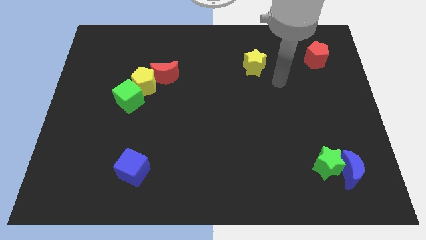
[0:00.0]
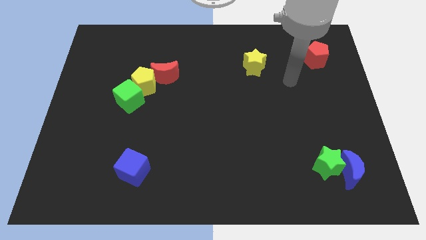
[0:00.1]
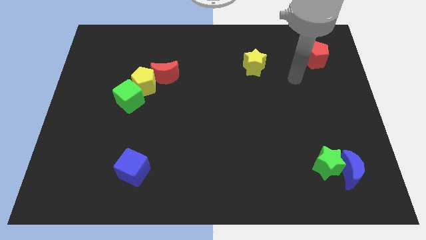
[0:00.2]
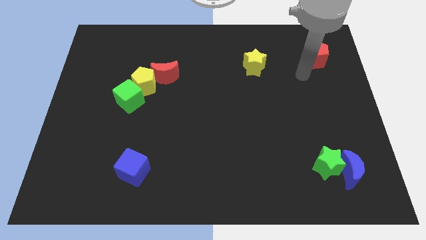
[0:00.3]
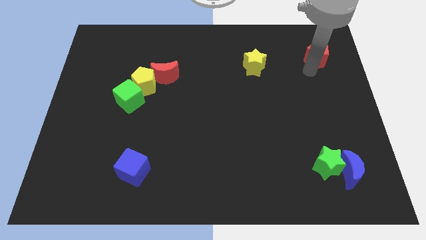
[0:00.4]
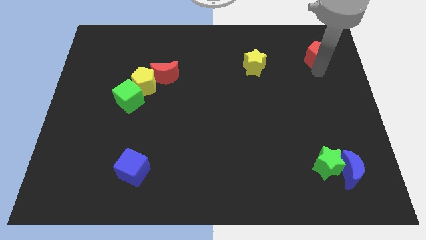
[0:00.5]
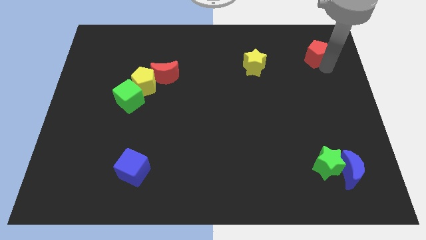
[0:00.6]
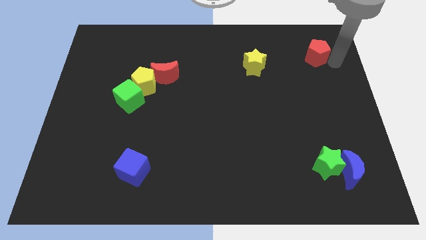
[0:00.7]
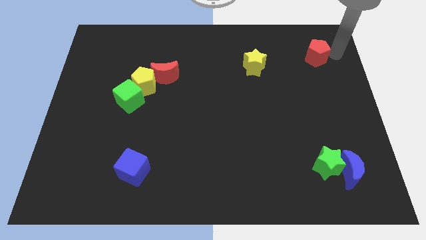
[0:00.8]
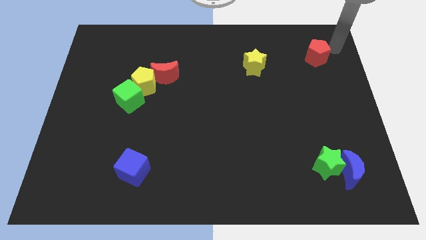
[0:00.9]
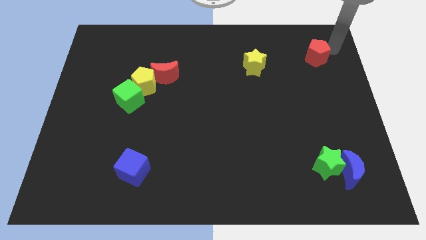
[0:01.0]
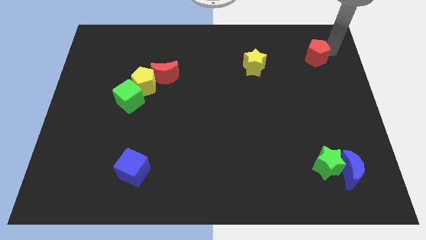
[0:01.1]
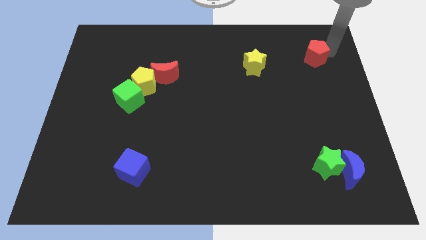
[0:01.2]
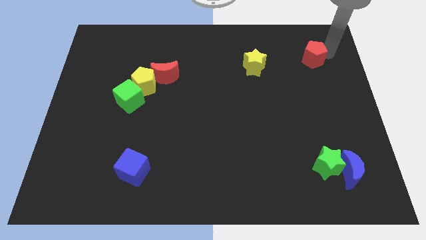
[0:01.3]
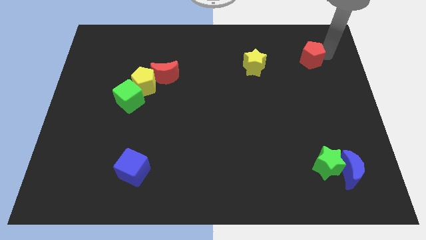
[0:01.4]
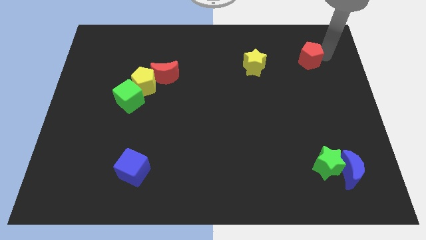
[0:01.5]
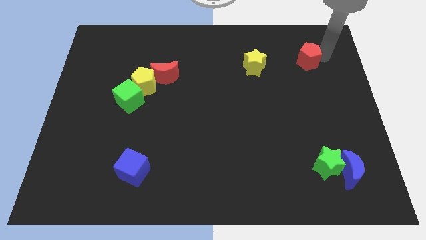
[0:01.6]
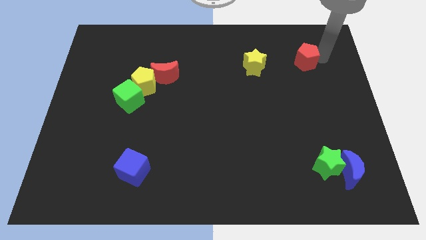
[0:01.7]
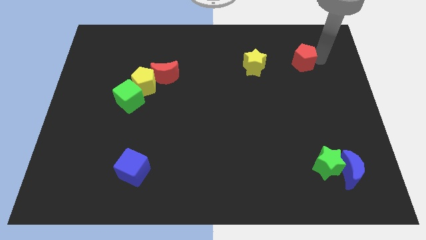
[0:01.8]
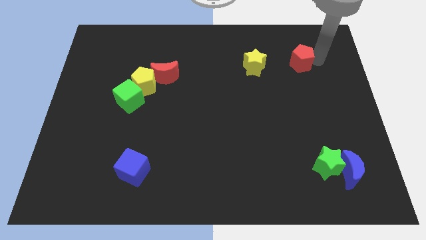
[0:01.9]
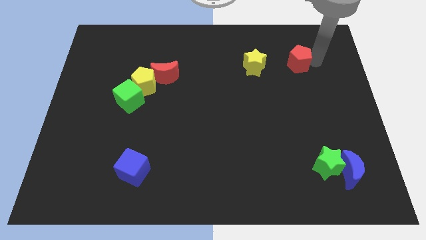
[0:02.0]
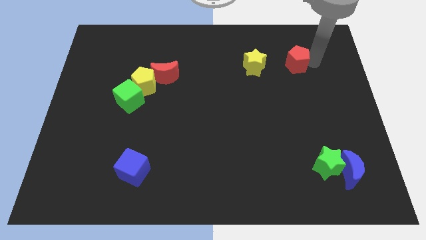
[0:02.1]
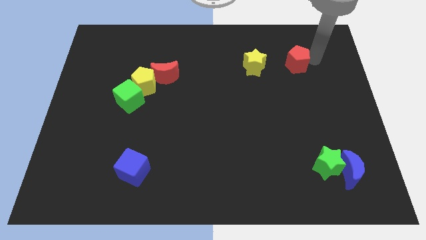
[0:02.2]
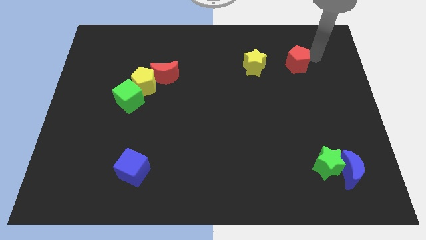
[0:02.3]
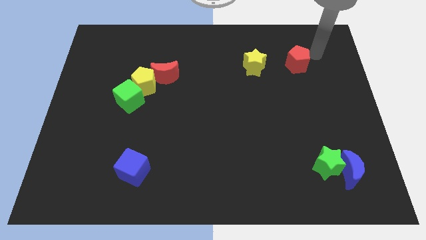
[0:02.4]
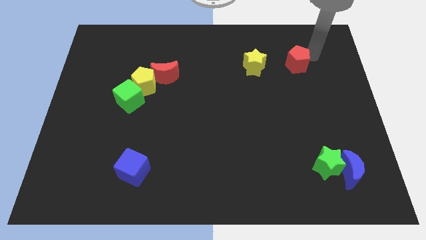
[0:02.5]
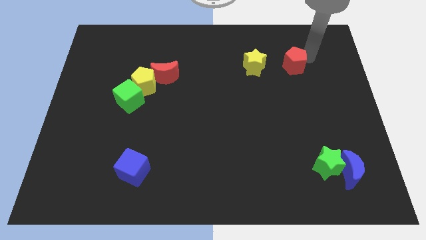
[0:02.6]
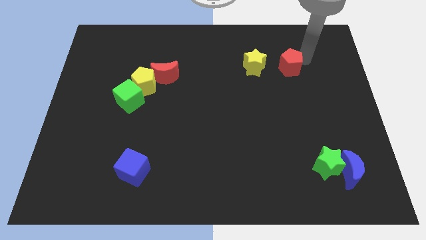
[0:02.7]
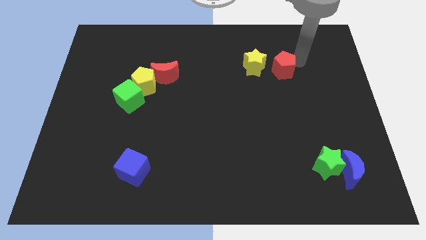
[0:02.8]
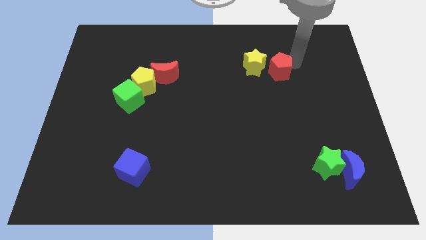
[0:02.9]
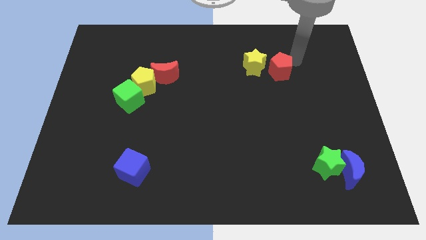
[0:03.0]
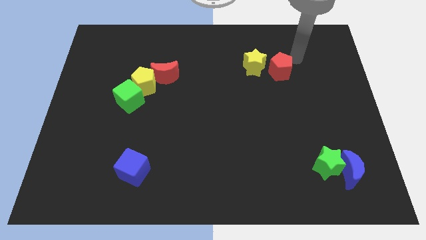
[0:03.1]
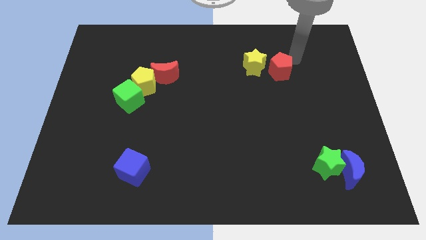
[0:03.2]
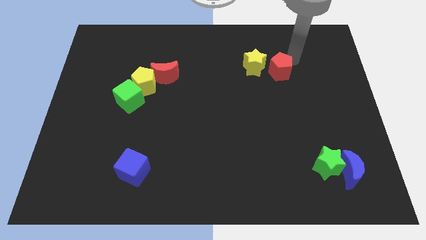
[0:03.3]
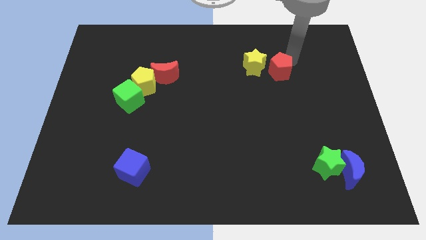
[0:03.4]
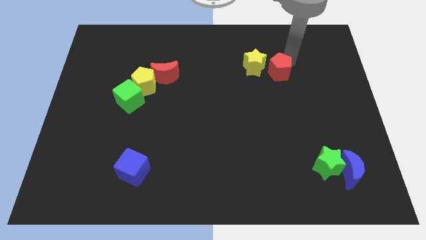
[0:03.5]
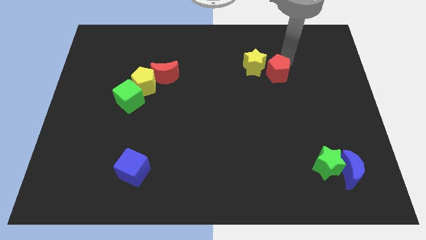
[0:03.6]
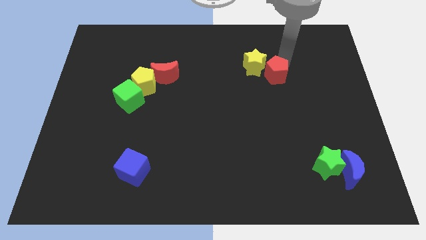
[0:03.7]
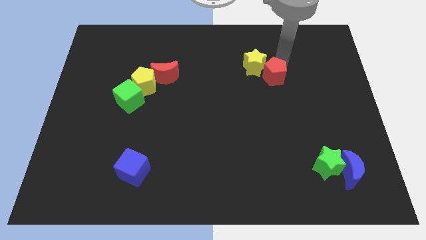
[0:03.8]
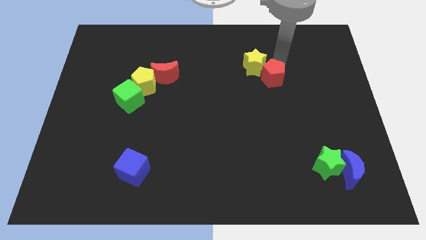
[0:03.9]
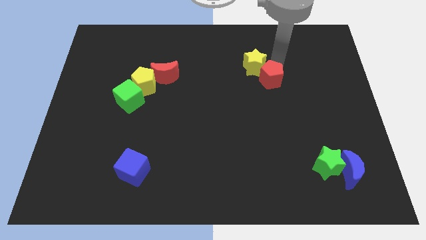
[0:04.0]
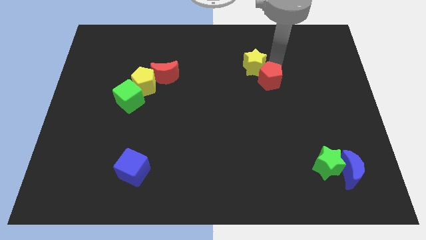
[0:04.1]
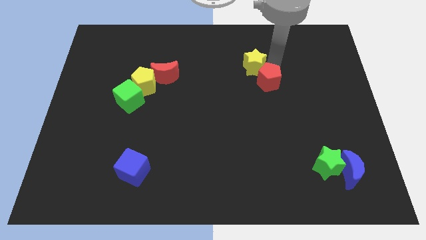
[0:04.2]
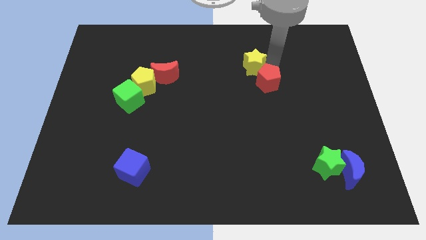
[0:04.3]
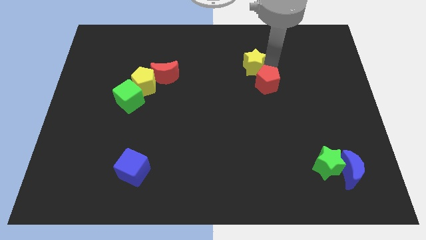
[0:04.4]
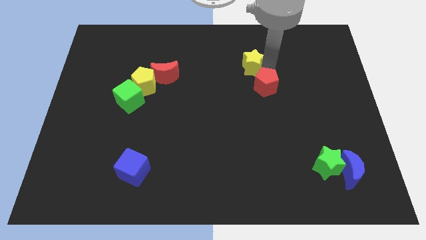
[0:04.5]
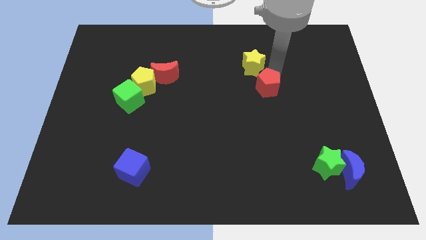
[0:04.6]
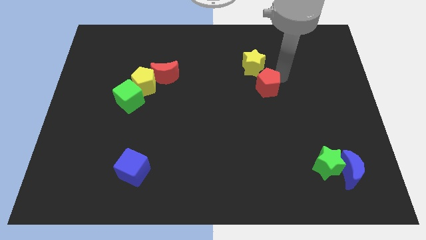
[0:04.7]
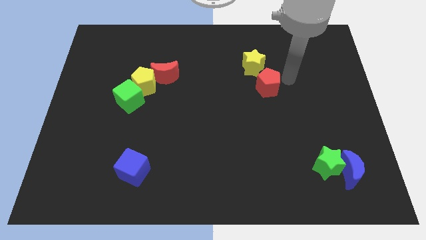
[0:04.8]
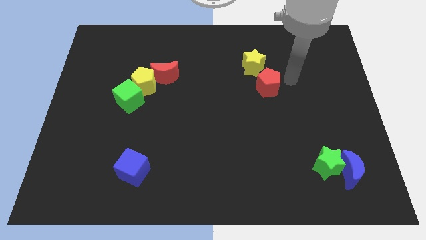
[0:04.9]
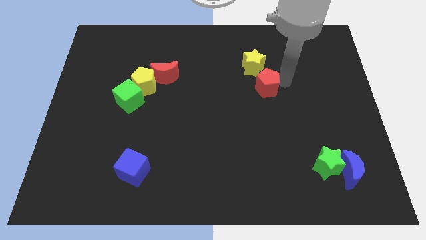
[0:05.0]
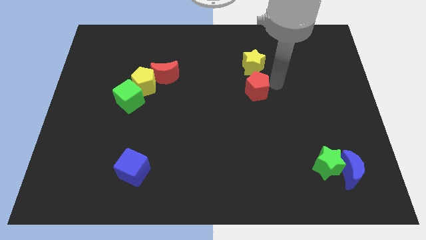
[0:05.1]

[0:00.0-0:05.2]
slide the red pentagon to the center

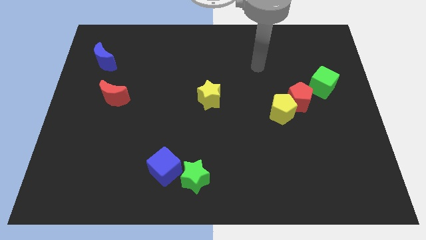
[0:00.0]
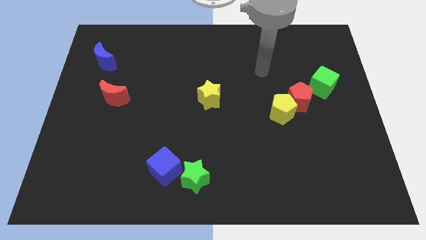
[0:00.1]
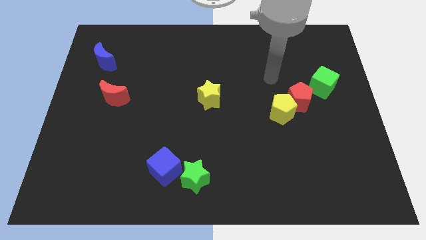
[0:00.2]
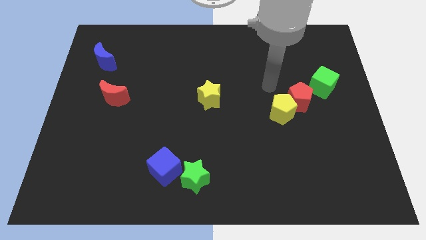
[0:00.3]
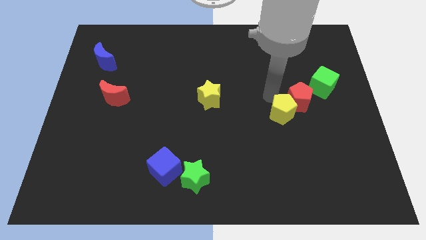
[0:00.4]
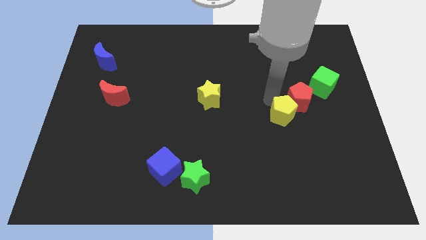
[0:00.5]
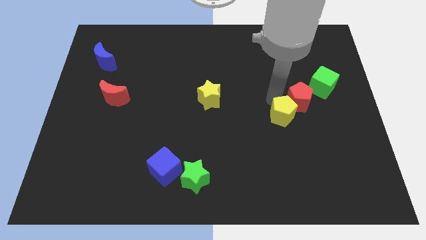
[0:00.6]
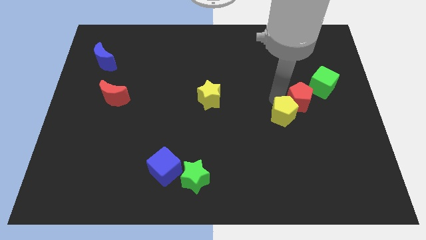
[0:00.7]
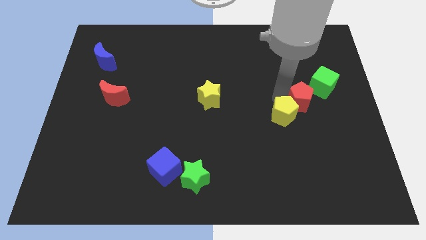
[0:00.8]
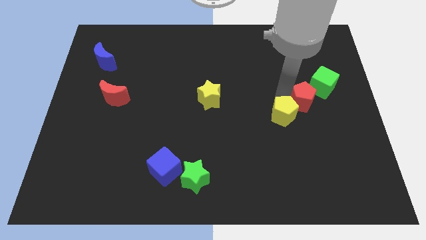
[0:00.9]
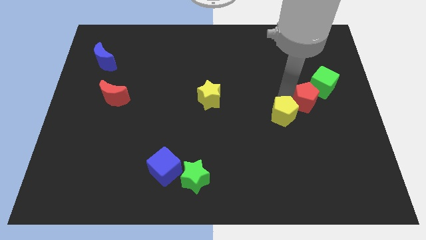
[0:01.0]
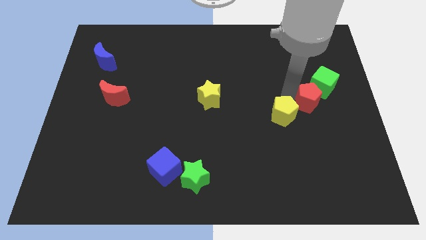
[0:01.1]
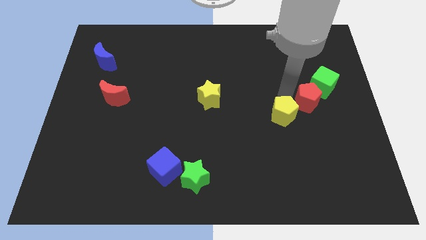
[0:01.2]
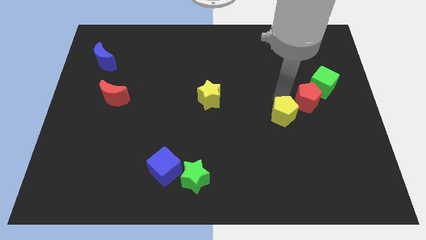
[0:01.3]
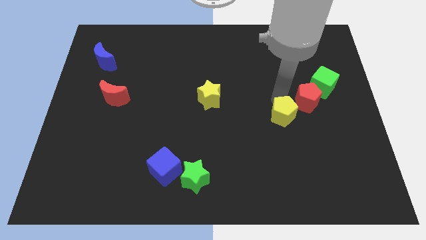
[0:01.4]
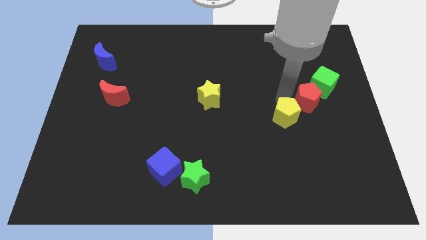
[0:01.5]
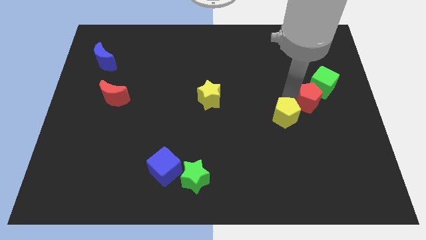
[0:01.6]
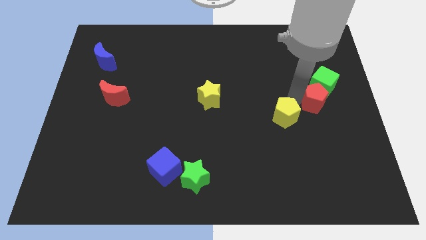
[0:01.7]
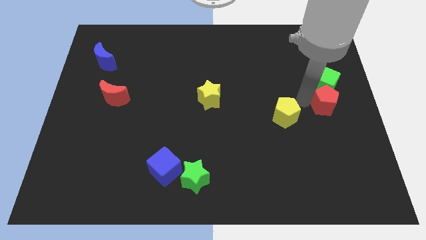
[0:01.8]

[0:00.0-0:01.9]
slide the red pentagon to the right side
